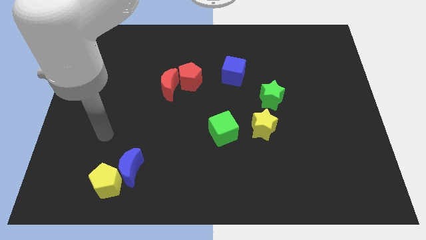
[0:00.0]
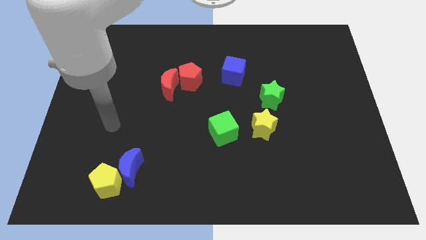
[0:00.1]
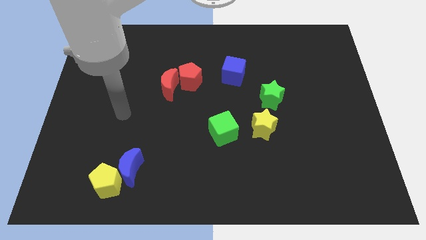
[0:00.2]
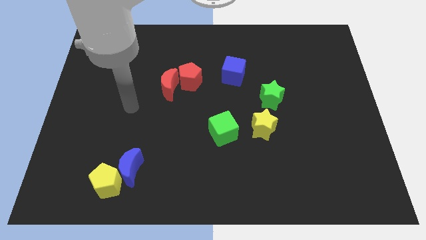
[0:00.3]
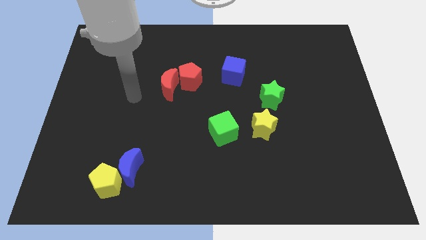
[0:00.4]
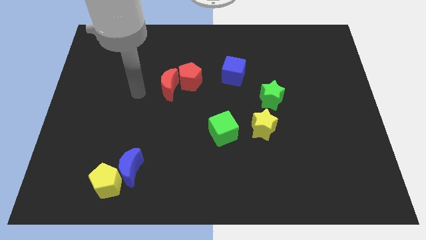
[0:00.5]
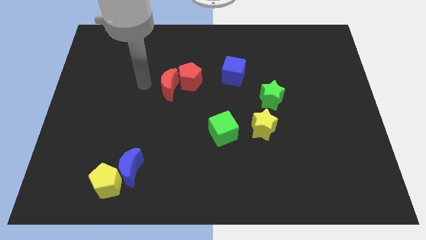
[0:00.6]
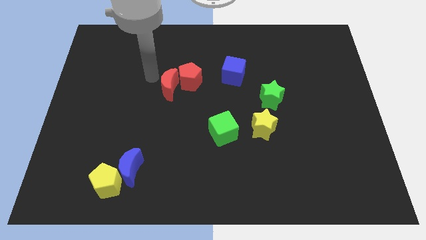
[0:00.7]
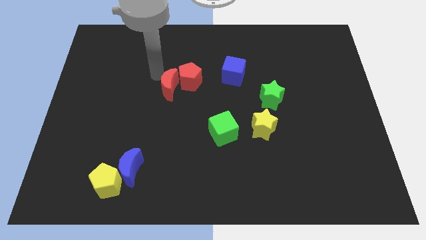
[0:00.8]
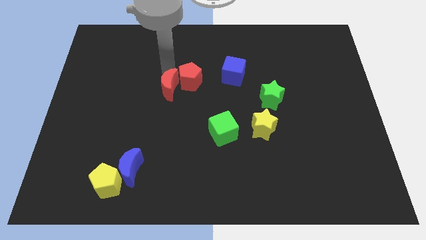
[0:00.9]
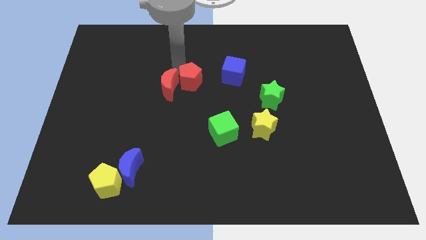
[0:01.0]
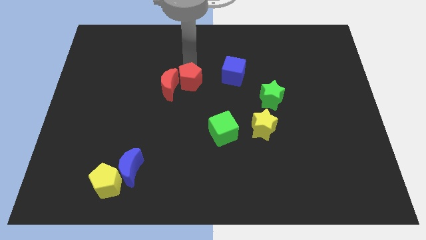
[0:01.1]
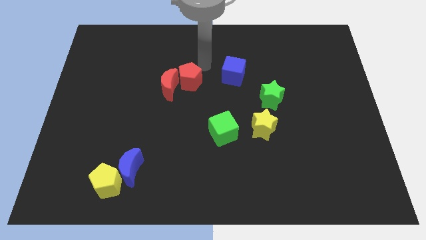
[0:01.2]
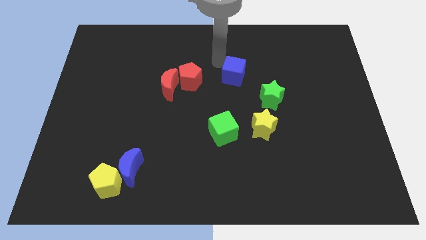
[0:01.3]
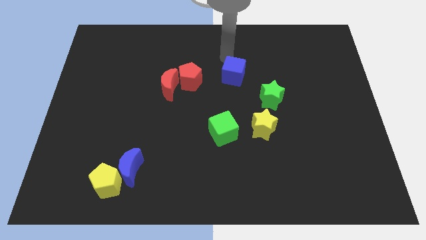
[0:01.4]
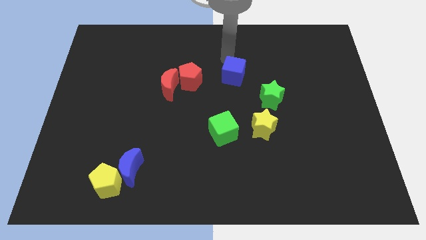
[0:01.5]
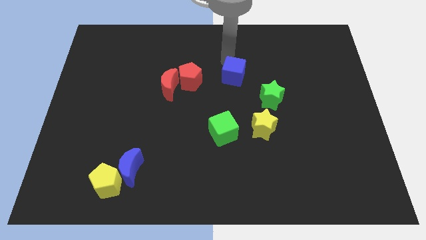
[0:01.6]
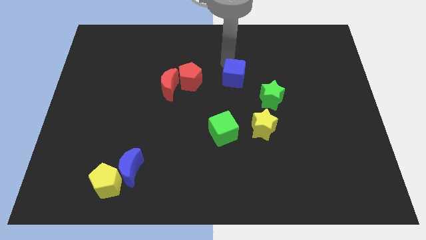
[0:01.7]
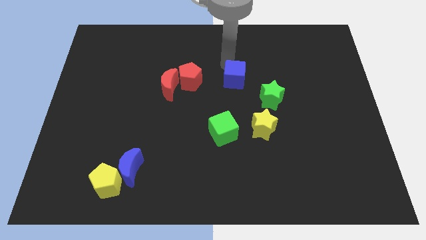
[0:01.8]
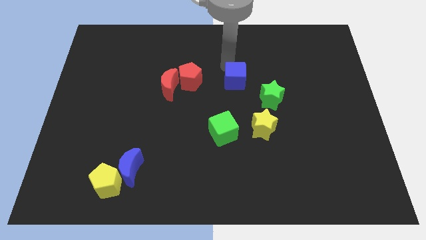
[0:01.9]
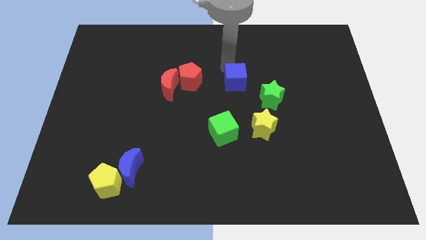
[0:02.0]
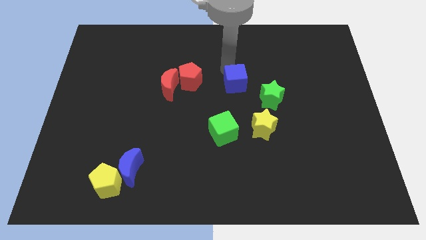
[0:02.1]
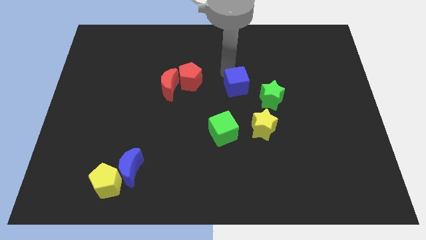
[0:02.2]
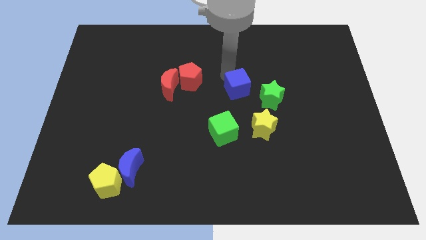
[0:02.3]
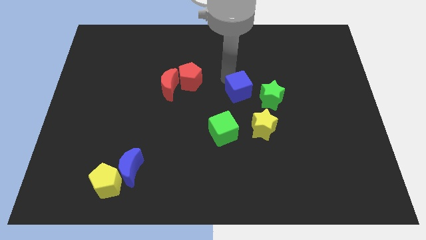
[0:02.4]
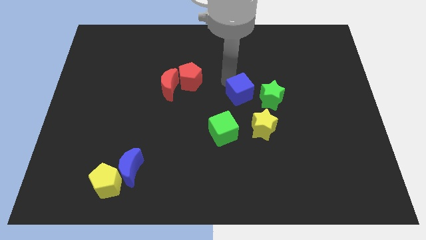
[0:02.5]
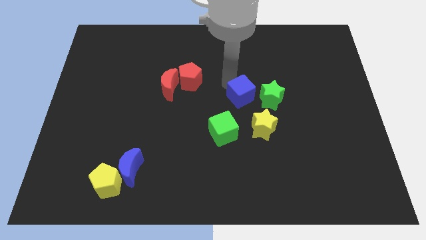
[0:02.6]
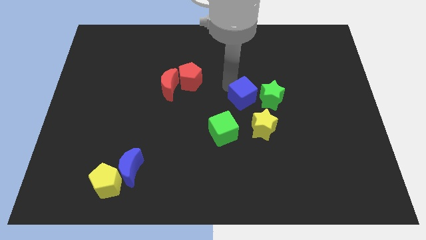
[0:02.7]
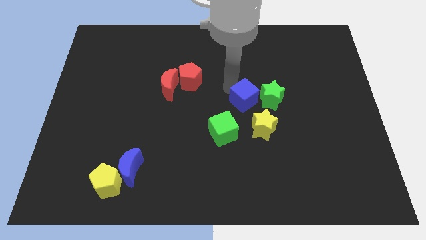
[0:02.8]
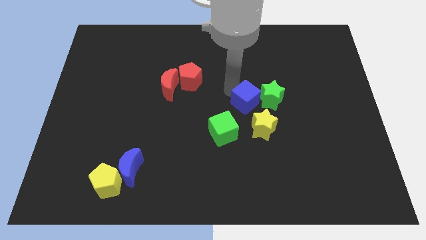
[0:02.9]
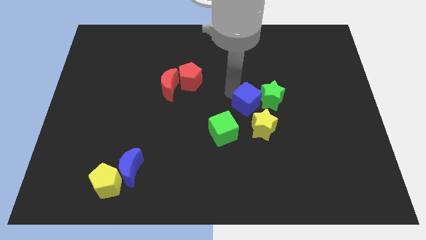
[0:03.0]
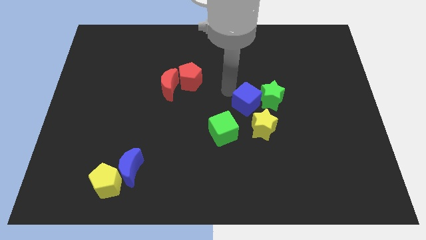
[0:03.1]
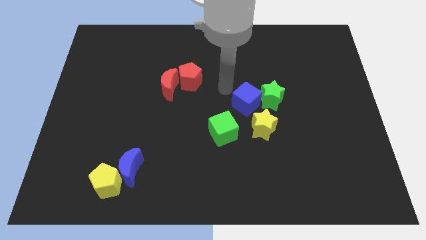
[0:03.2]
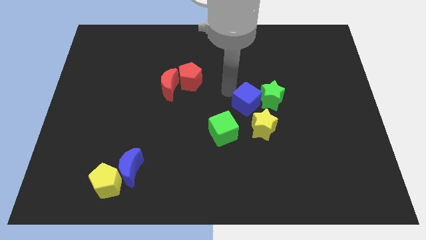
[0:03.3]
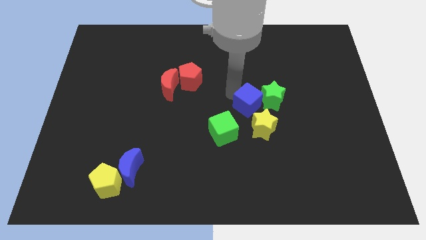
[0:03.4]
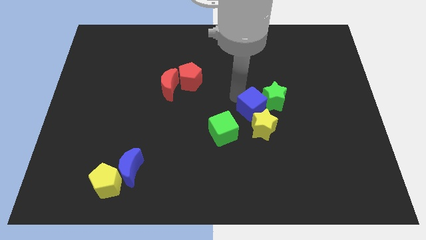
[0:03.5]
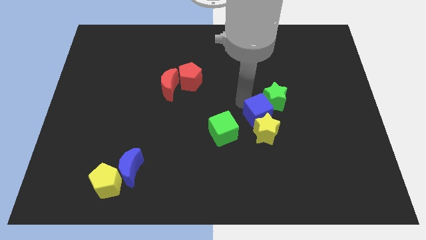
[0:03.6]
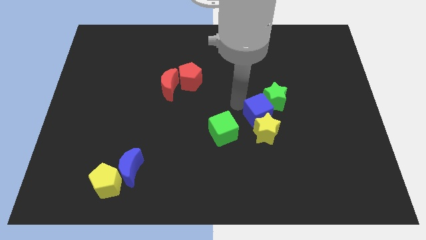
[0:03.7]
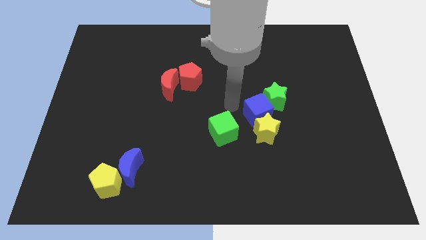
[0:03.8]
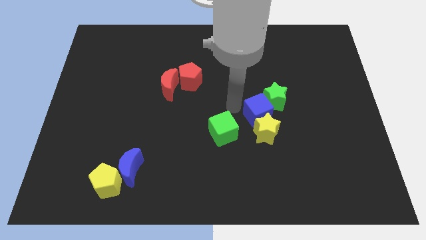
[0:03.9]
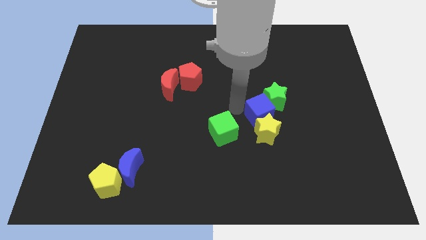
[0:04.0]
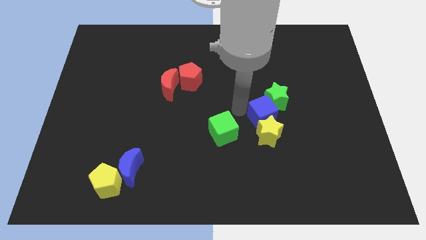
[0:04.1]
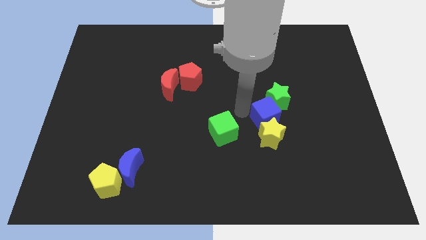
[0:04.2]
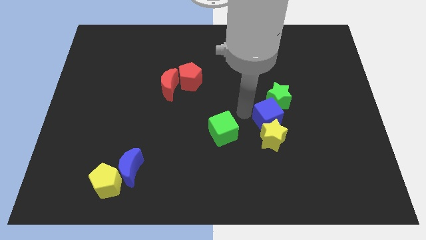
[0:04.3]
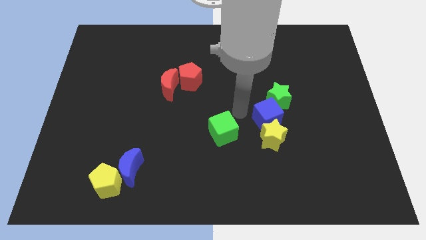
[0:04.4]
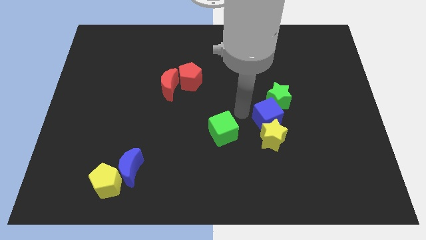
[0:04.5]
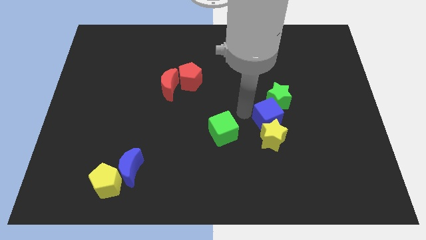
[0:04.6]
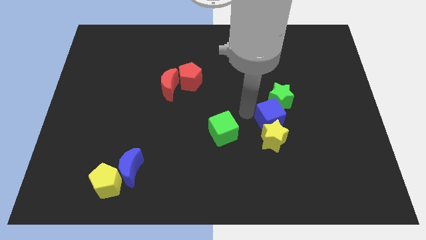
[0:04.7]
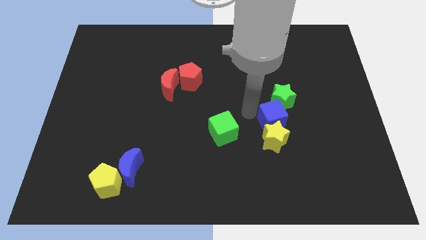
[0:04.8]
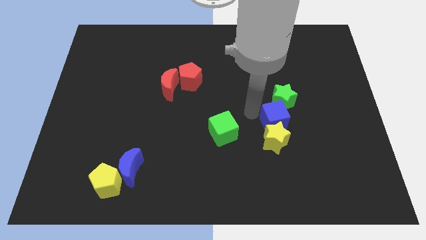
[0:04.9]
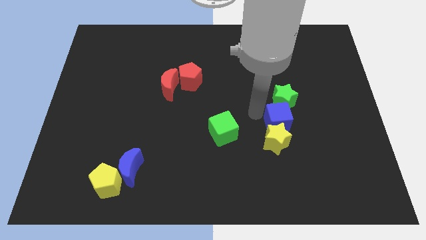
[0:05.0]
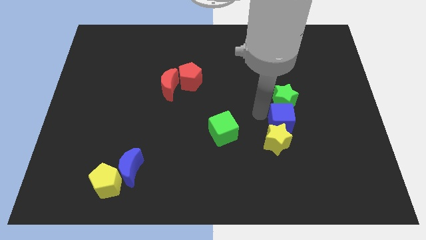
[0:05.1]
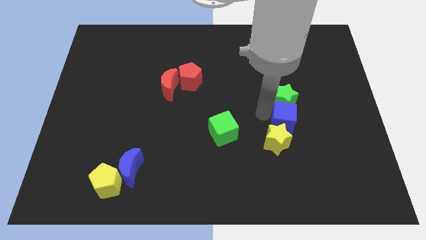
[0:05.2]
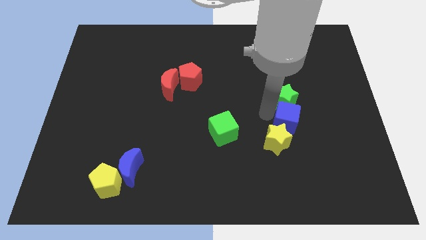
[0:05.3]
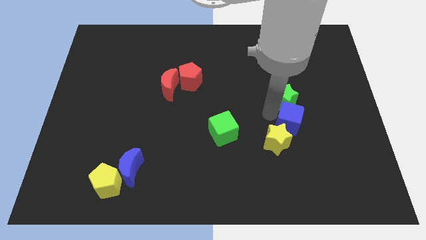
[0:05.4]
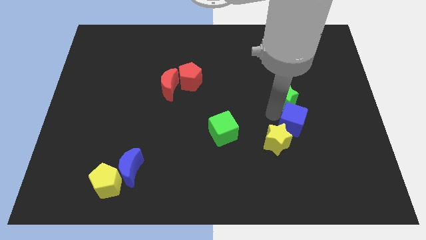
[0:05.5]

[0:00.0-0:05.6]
move the blue cube downwards and right

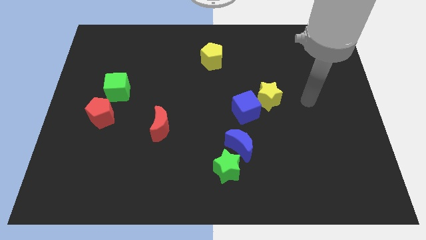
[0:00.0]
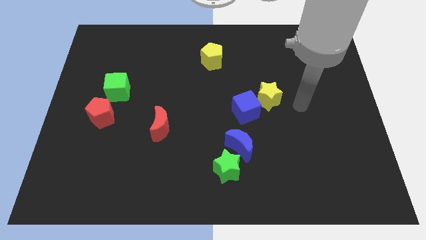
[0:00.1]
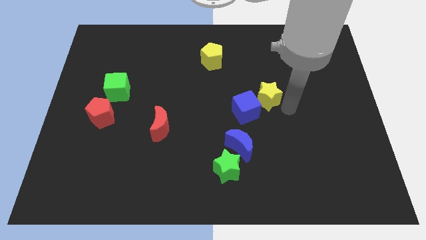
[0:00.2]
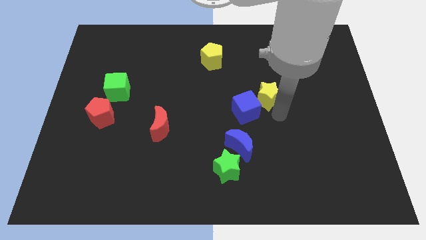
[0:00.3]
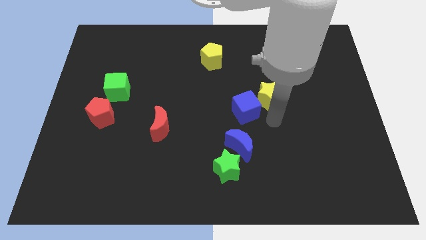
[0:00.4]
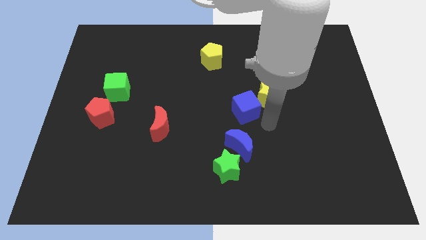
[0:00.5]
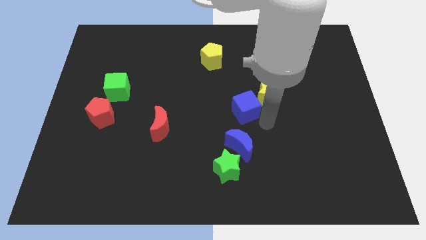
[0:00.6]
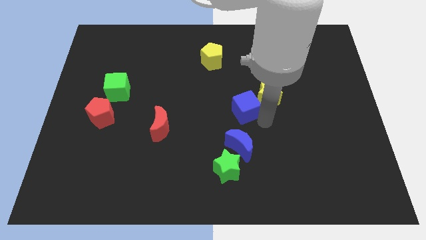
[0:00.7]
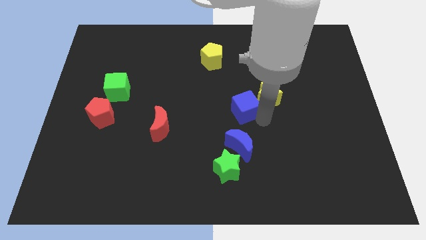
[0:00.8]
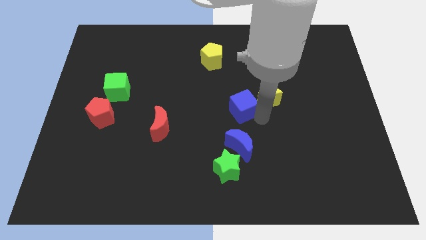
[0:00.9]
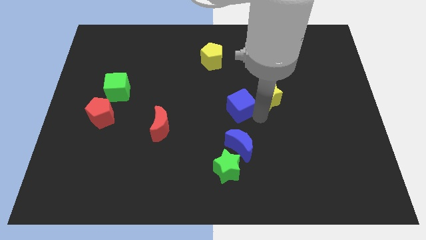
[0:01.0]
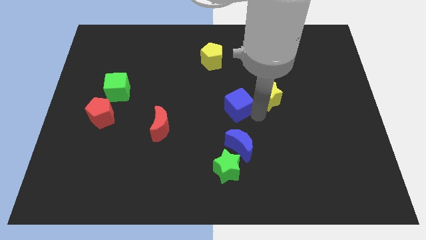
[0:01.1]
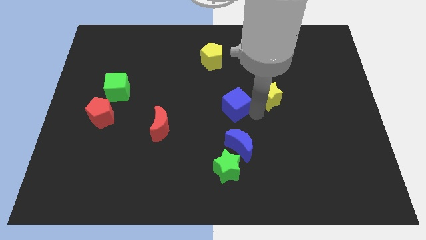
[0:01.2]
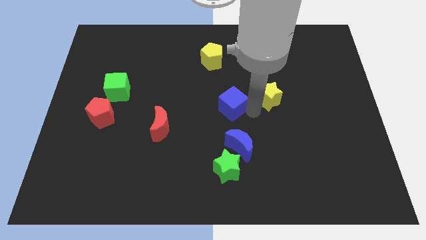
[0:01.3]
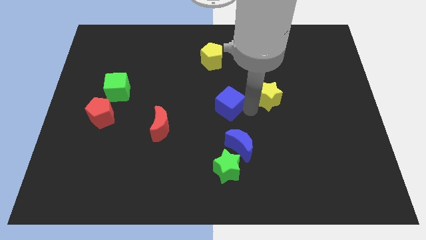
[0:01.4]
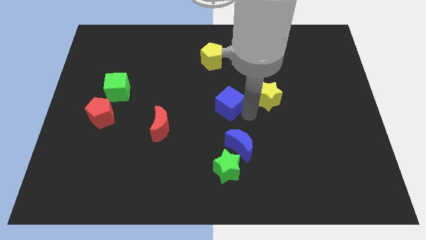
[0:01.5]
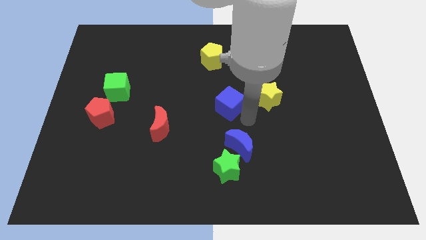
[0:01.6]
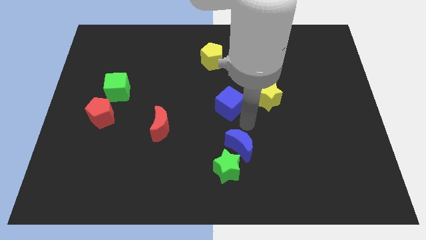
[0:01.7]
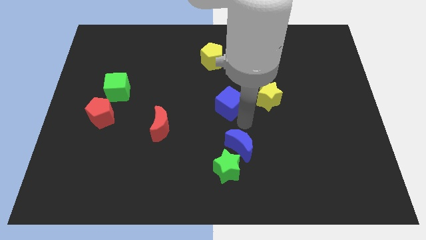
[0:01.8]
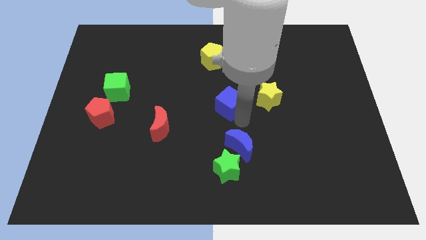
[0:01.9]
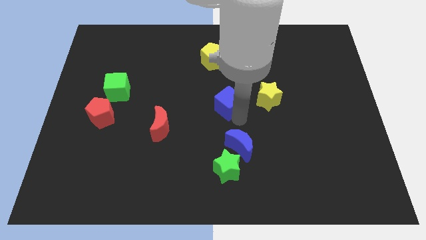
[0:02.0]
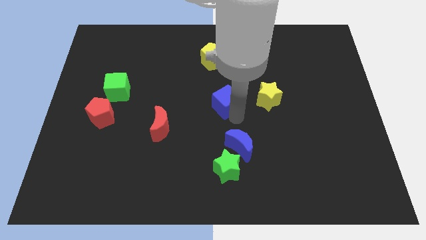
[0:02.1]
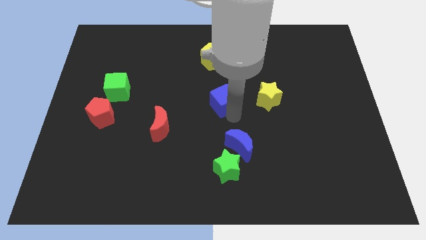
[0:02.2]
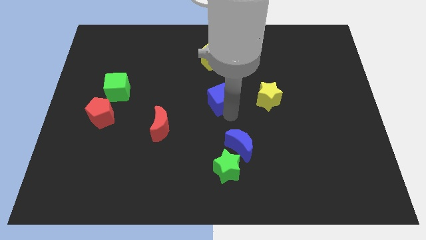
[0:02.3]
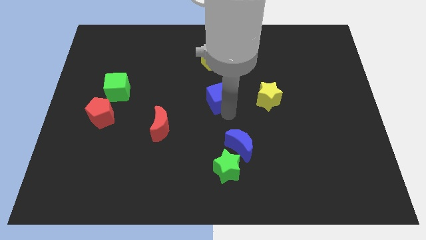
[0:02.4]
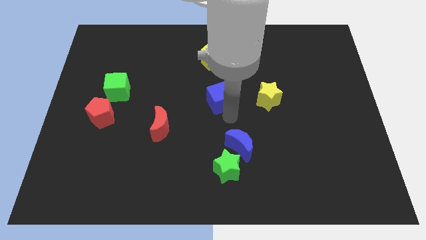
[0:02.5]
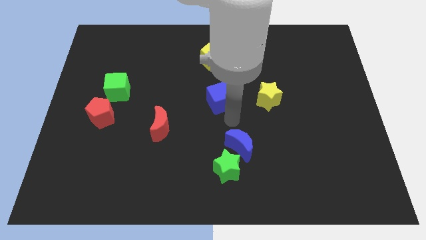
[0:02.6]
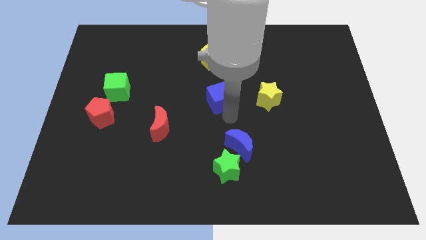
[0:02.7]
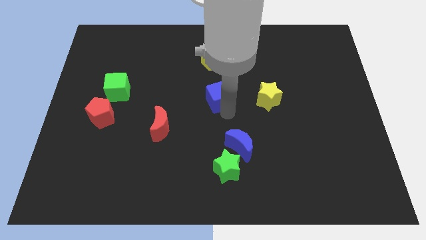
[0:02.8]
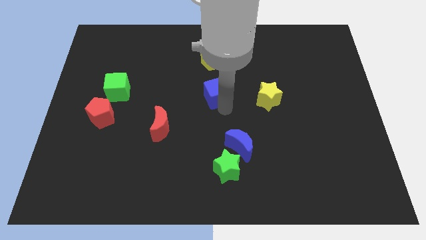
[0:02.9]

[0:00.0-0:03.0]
slide the blue cube upwards and then left slightly
